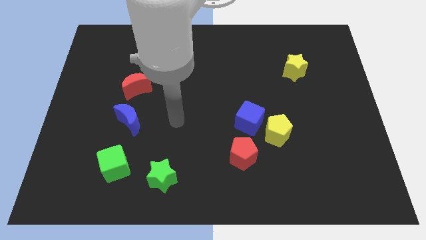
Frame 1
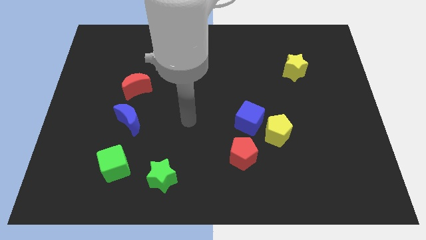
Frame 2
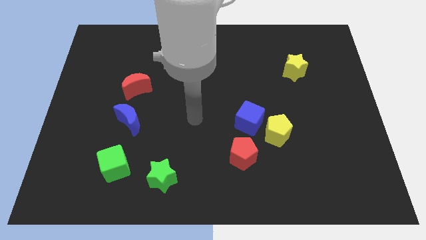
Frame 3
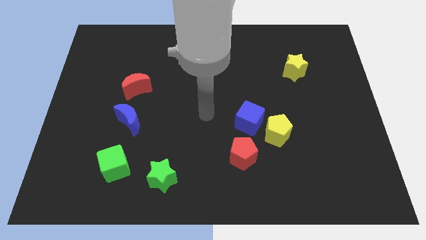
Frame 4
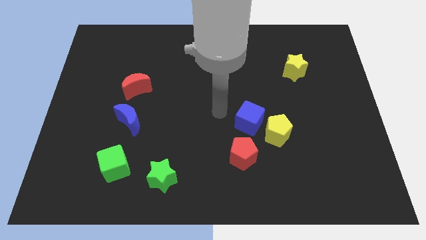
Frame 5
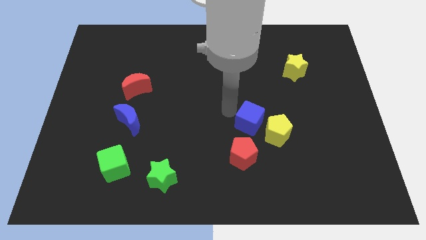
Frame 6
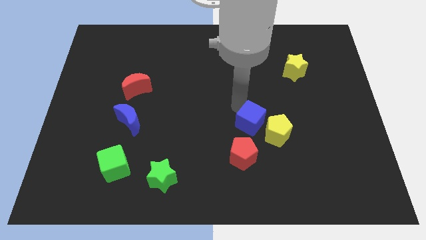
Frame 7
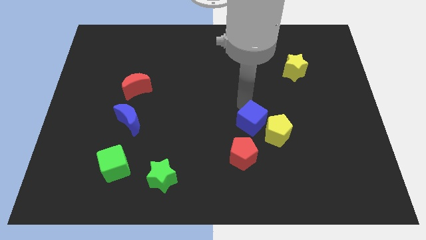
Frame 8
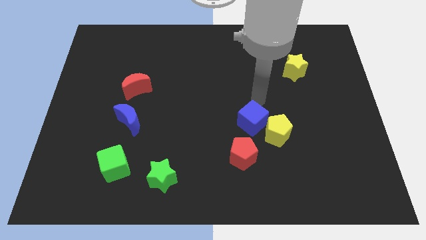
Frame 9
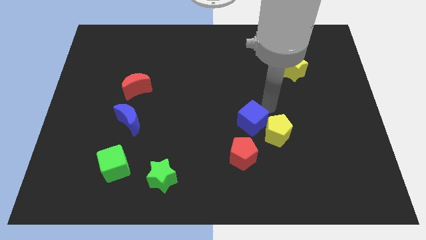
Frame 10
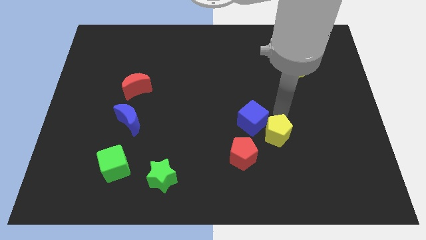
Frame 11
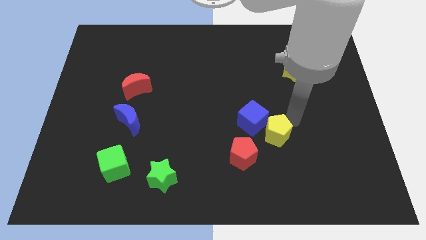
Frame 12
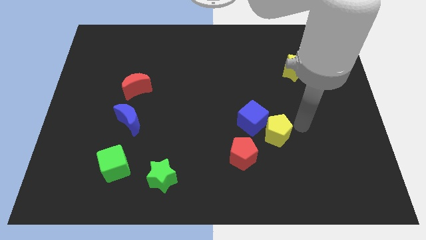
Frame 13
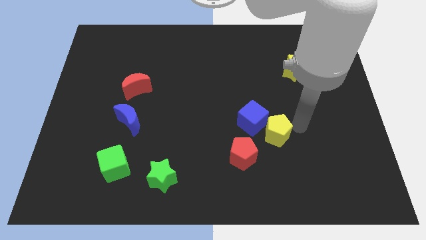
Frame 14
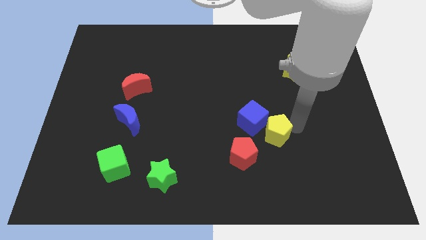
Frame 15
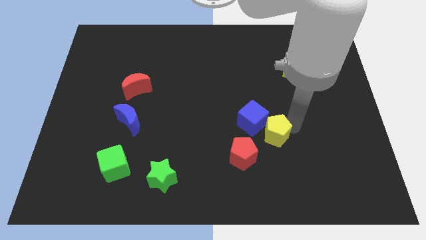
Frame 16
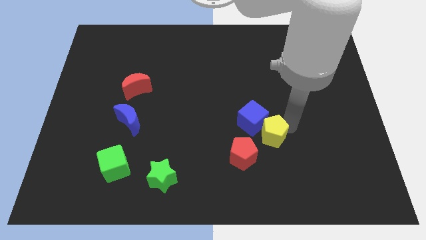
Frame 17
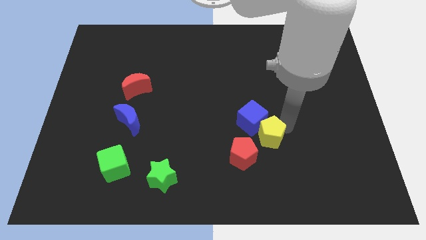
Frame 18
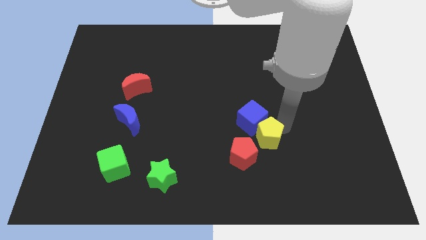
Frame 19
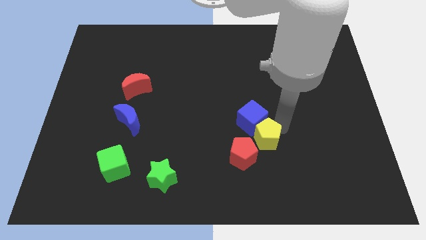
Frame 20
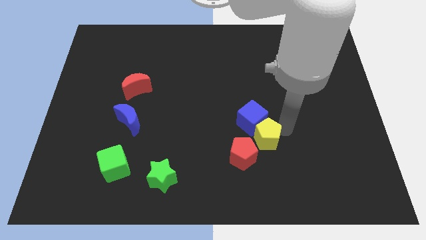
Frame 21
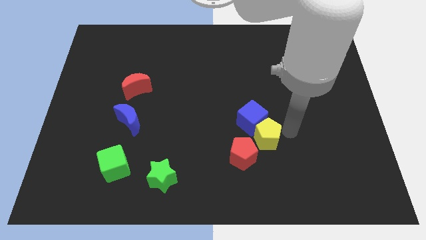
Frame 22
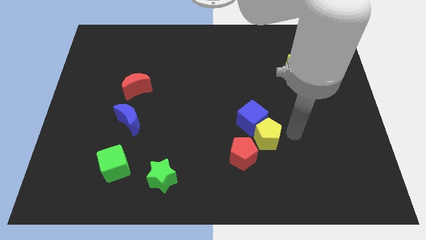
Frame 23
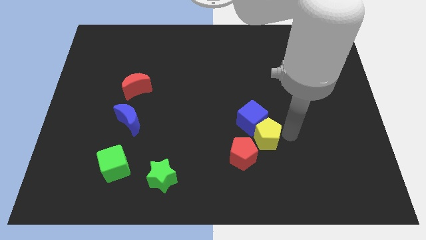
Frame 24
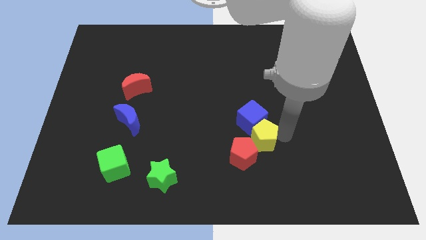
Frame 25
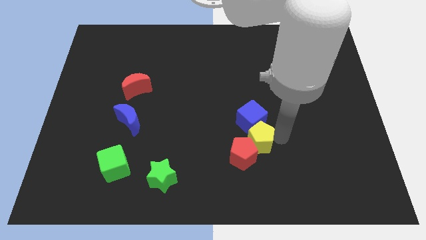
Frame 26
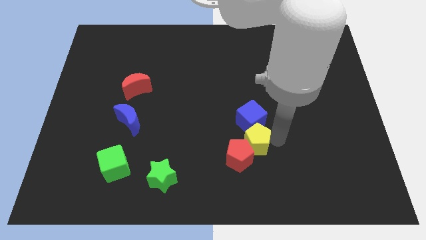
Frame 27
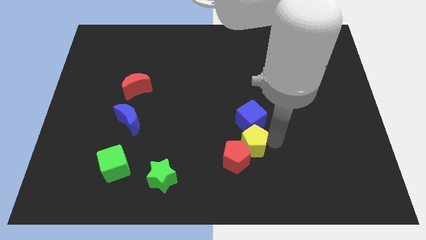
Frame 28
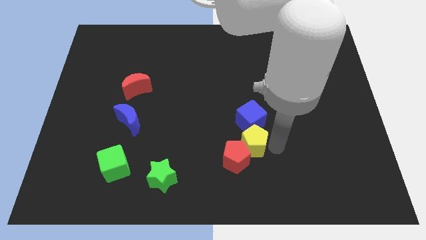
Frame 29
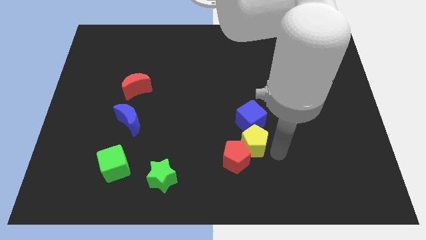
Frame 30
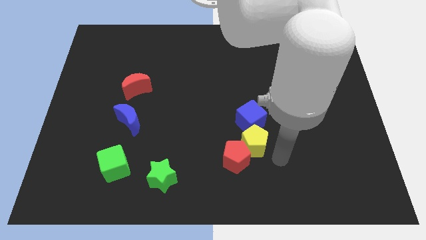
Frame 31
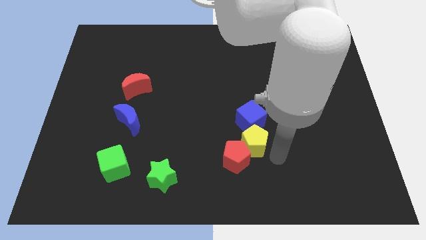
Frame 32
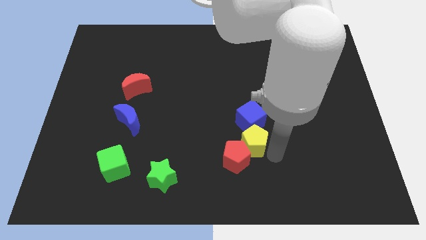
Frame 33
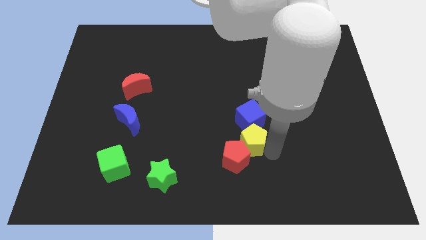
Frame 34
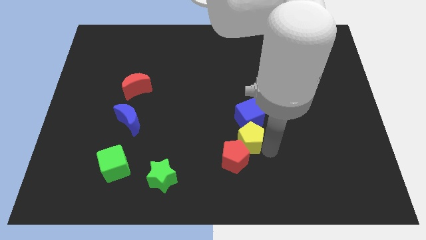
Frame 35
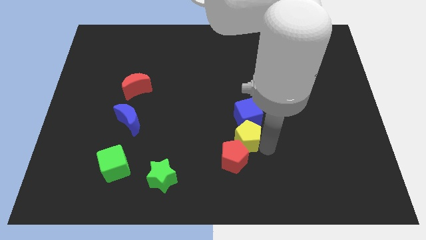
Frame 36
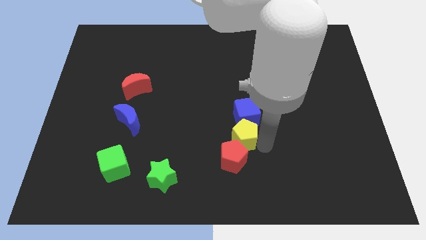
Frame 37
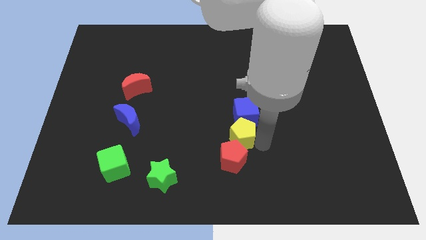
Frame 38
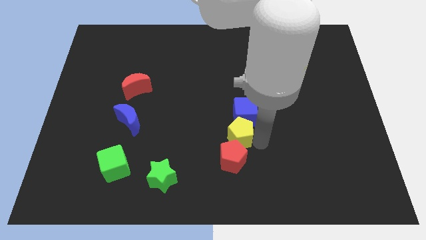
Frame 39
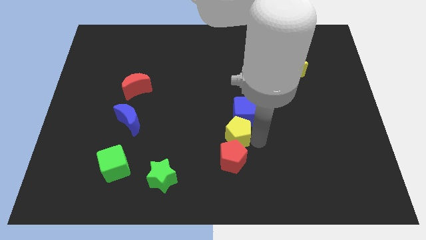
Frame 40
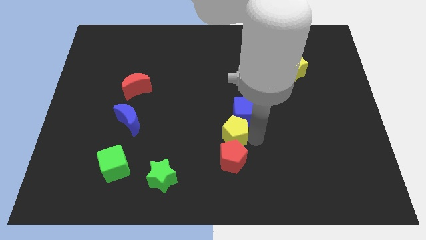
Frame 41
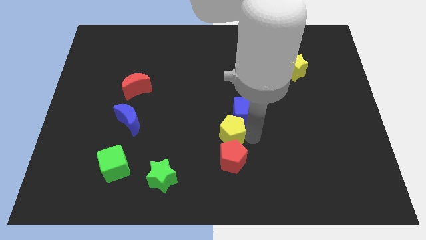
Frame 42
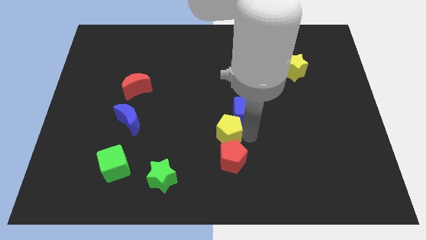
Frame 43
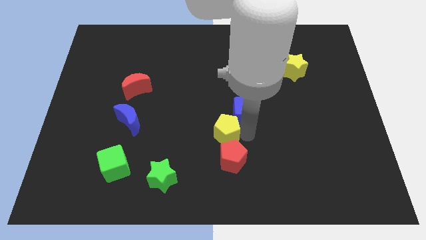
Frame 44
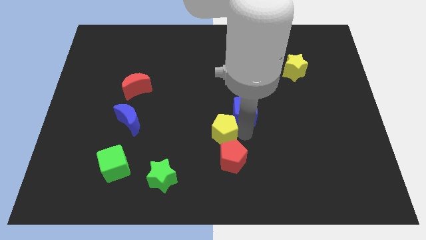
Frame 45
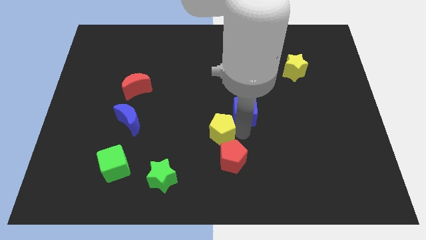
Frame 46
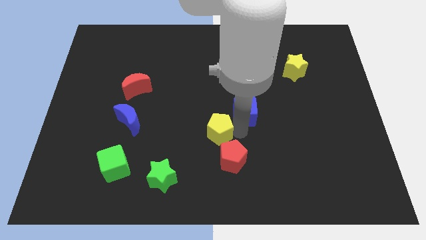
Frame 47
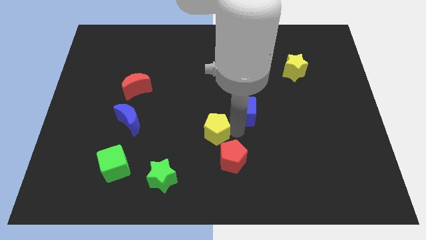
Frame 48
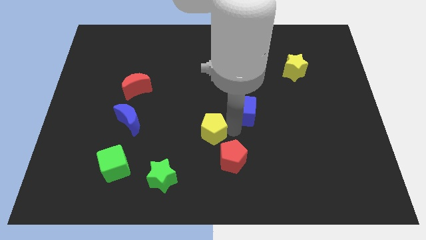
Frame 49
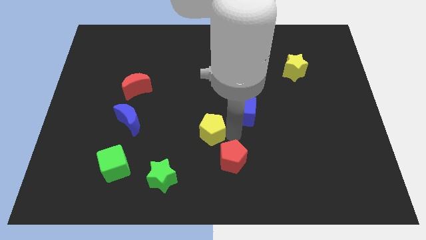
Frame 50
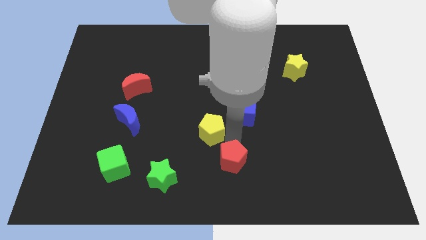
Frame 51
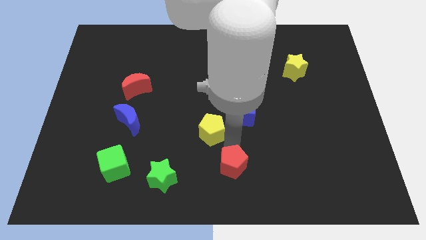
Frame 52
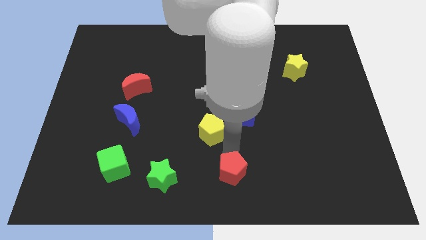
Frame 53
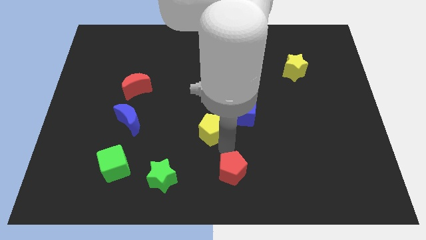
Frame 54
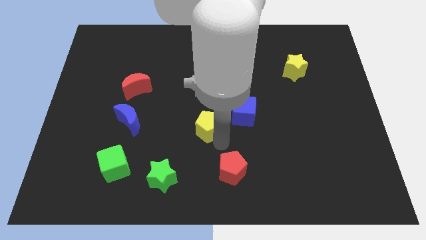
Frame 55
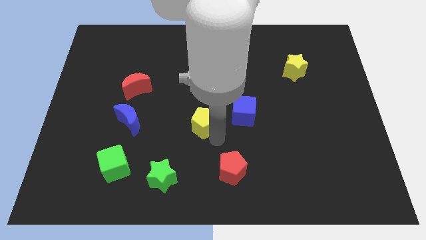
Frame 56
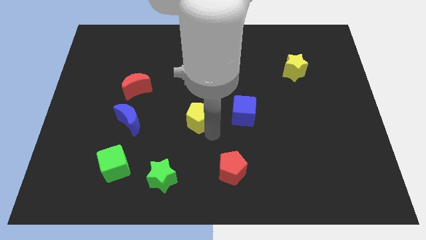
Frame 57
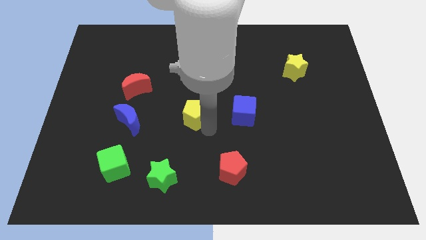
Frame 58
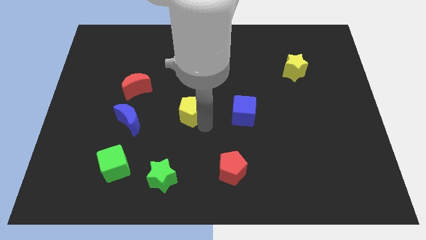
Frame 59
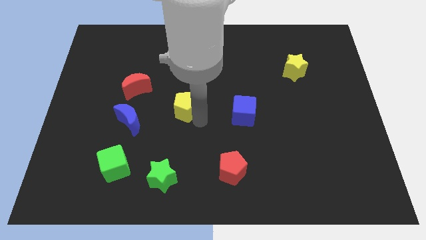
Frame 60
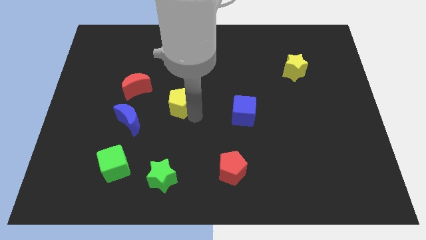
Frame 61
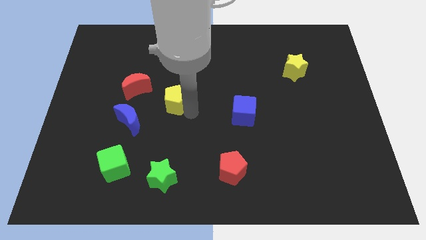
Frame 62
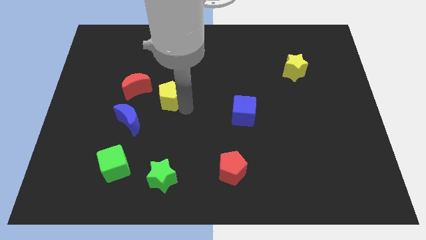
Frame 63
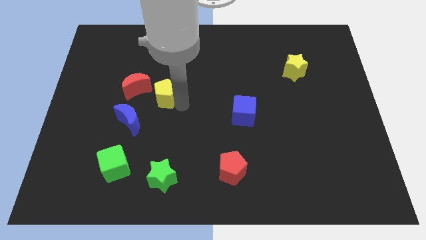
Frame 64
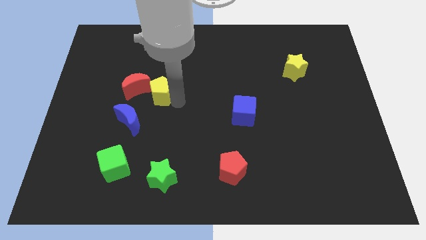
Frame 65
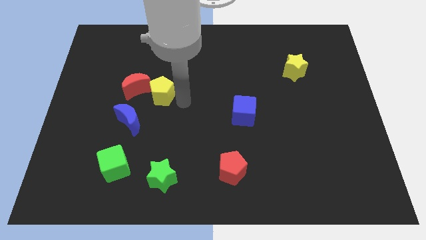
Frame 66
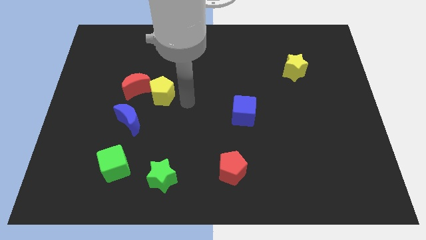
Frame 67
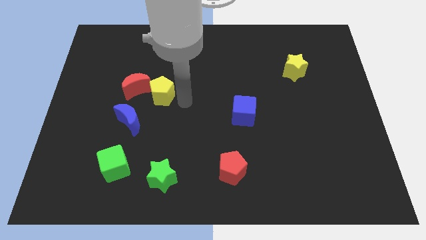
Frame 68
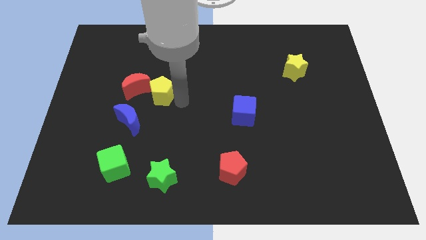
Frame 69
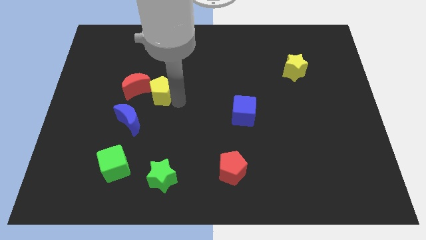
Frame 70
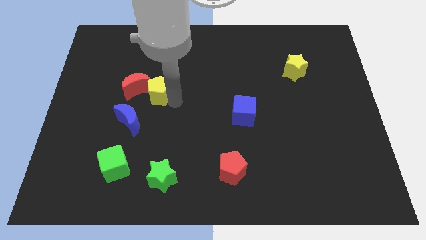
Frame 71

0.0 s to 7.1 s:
move the yellow pentagon close to the red moon

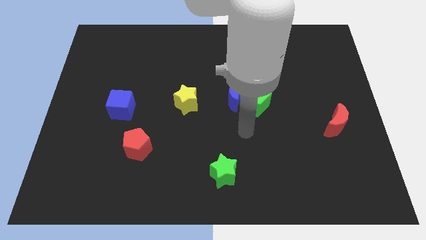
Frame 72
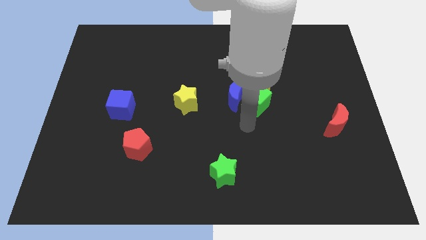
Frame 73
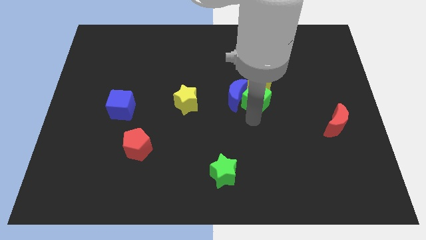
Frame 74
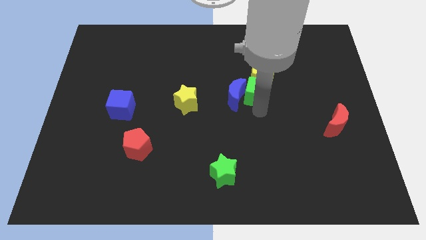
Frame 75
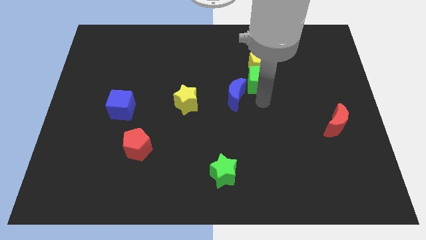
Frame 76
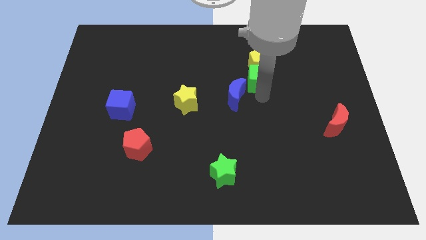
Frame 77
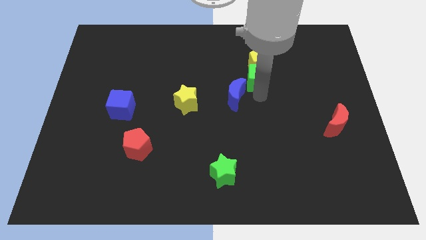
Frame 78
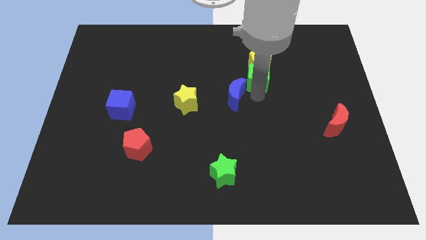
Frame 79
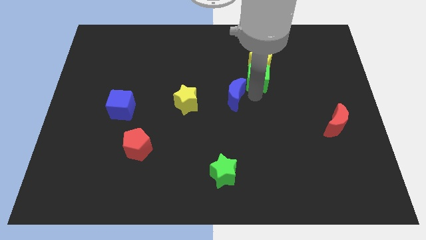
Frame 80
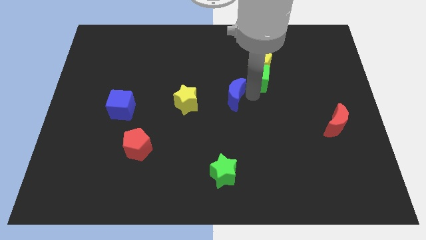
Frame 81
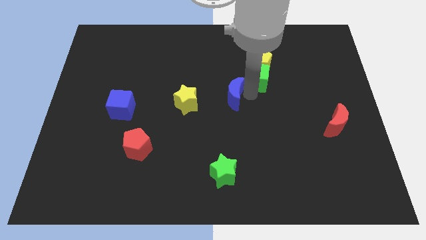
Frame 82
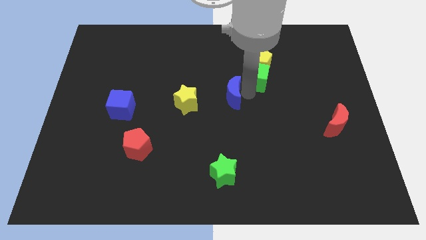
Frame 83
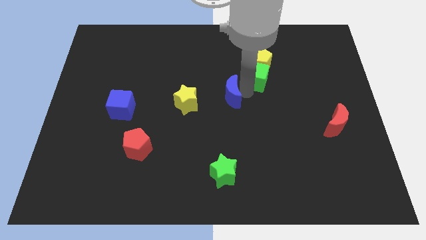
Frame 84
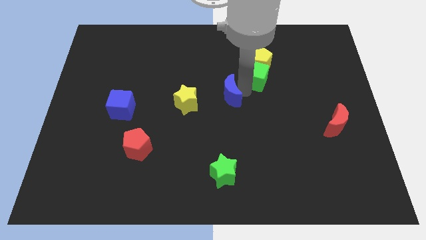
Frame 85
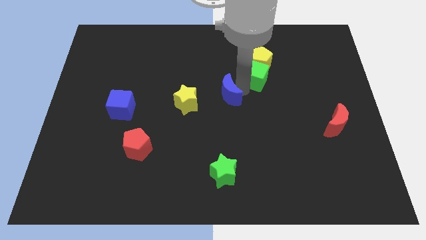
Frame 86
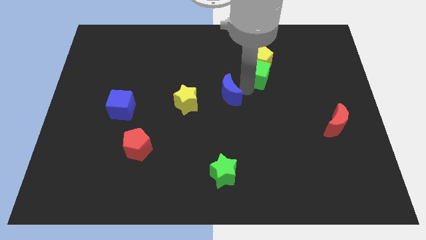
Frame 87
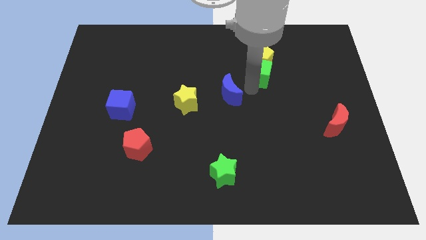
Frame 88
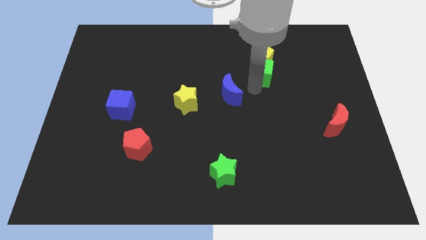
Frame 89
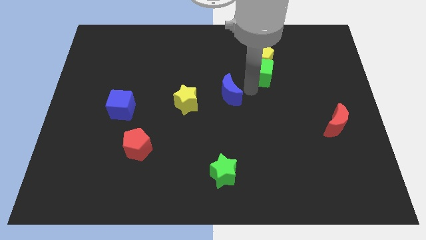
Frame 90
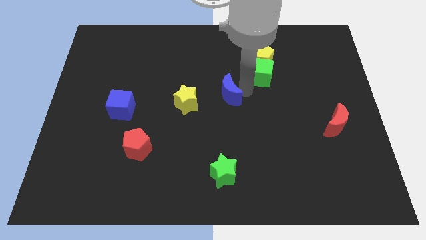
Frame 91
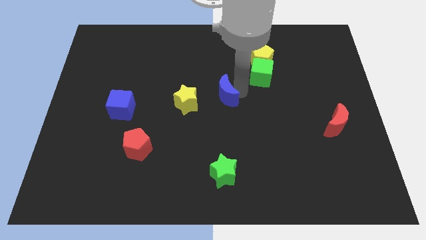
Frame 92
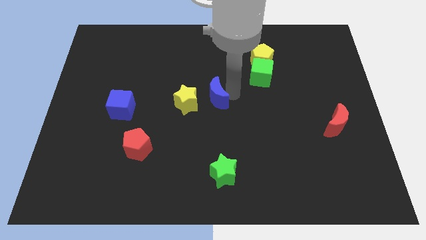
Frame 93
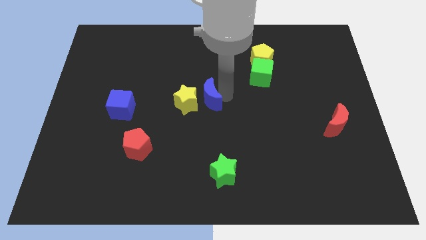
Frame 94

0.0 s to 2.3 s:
slide the blue moon towards the yellow star
